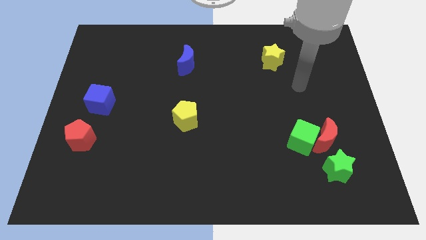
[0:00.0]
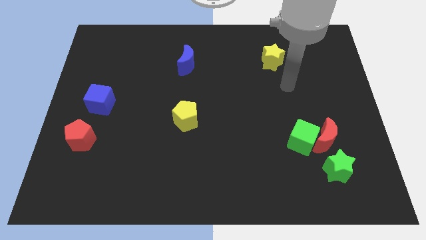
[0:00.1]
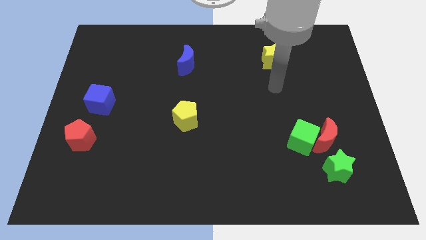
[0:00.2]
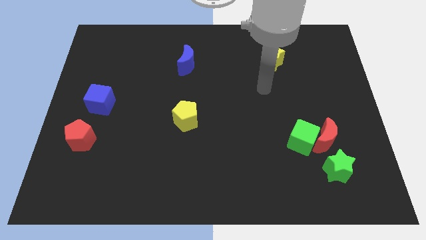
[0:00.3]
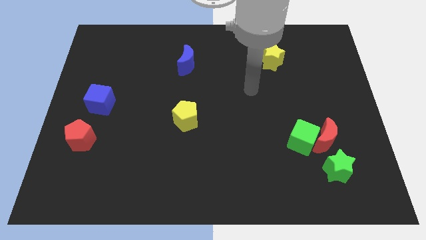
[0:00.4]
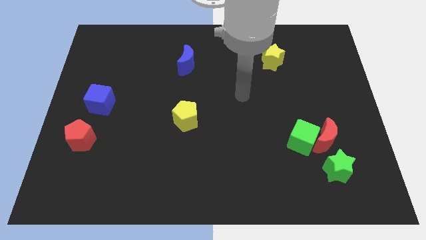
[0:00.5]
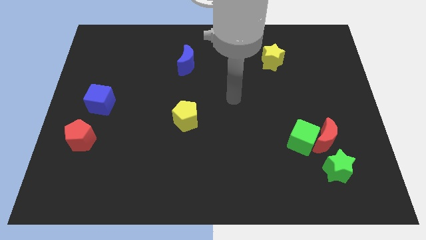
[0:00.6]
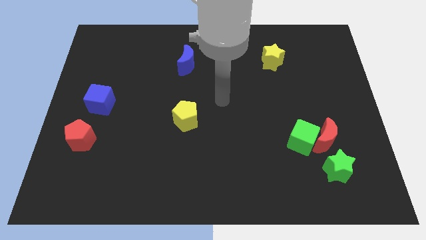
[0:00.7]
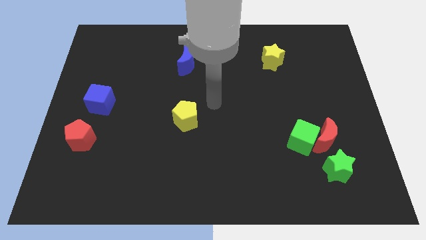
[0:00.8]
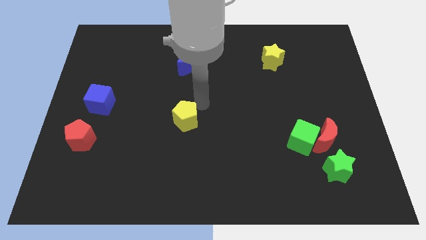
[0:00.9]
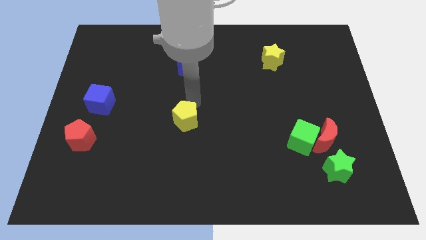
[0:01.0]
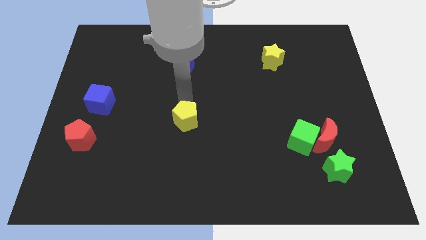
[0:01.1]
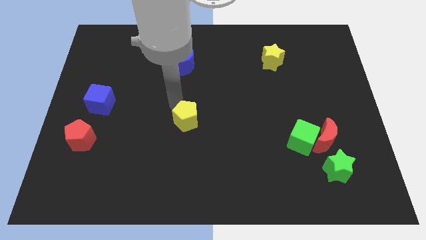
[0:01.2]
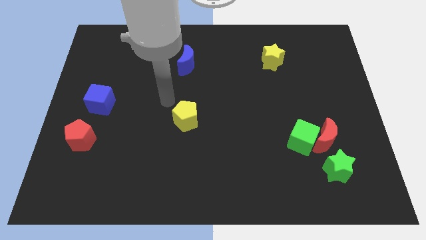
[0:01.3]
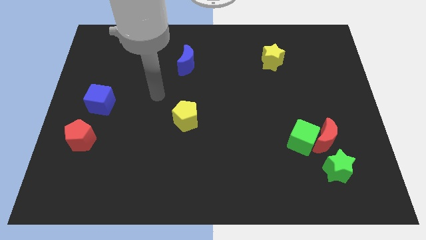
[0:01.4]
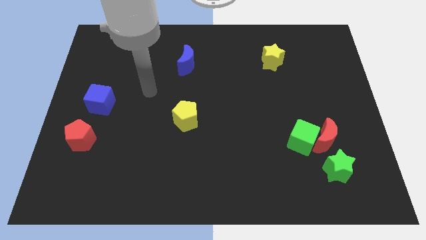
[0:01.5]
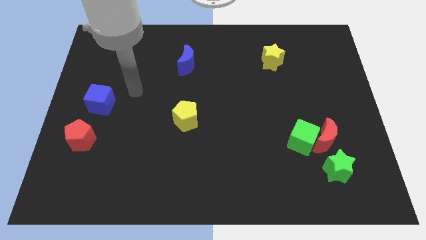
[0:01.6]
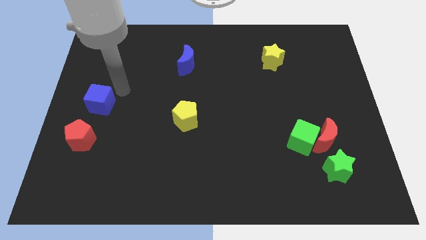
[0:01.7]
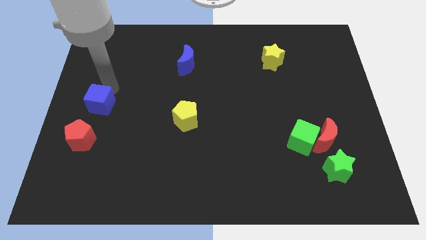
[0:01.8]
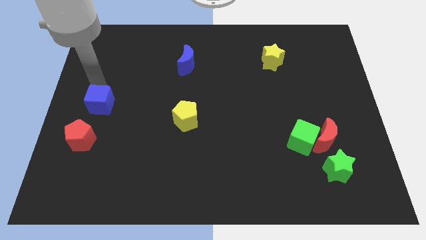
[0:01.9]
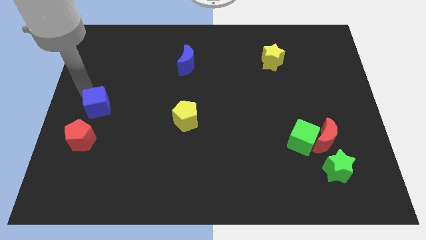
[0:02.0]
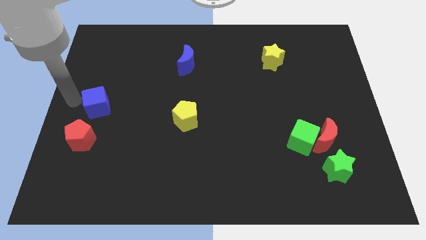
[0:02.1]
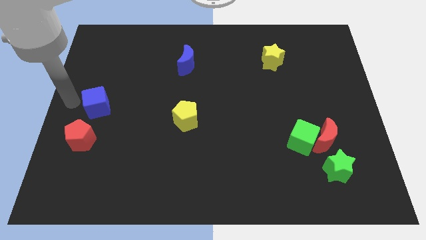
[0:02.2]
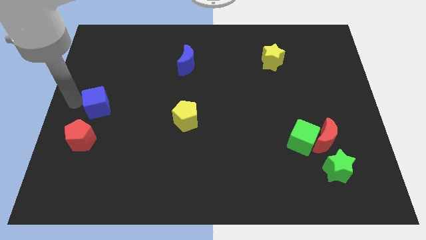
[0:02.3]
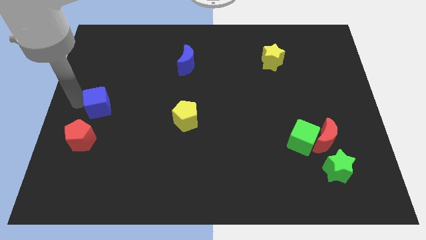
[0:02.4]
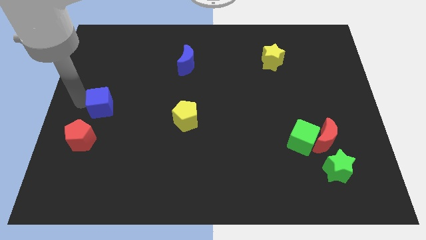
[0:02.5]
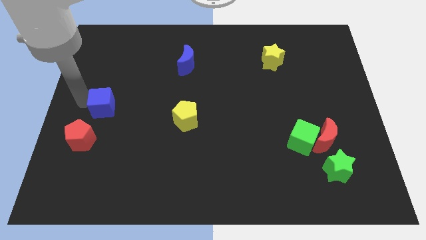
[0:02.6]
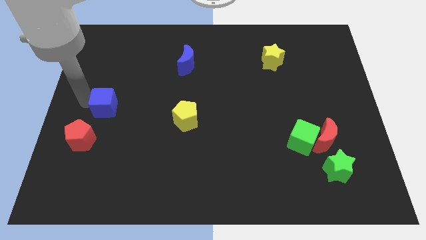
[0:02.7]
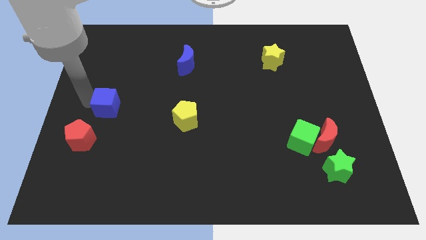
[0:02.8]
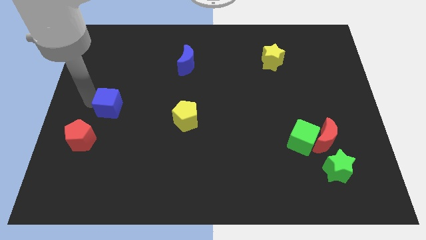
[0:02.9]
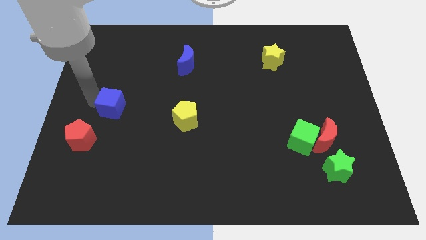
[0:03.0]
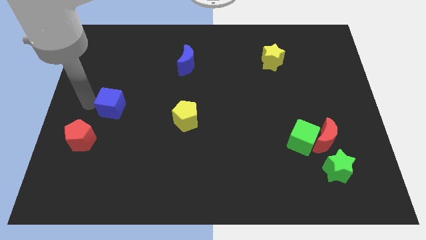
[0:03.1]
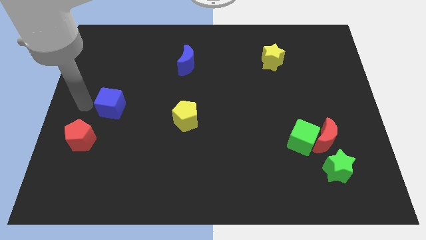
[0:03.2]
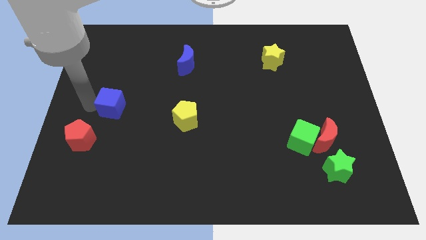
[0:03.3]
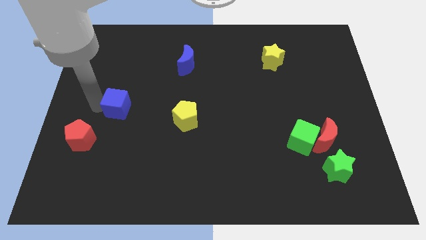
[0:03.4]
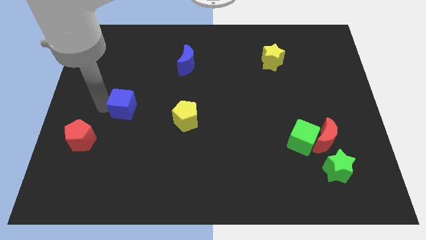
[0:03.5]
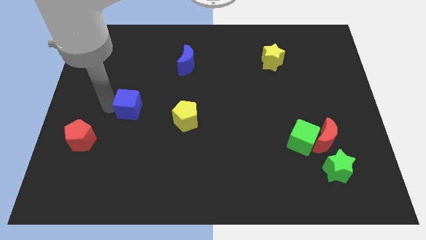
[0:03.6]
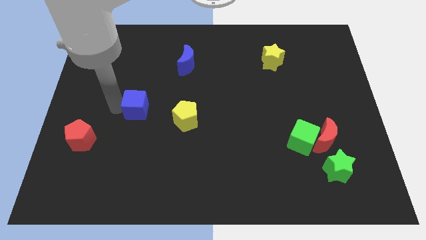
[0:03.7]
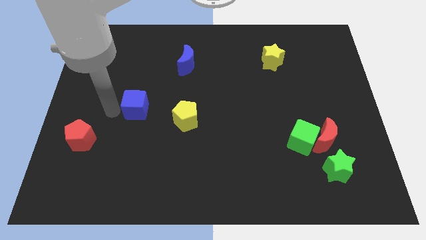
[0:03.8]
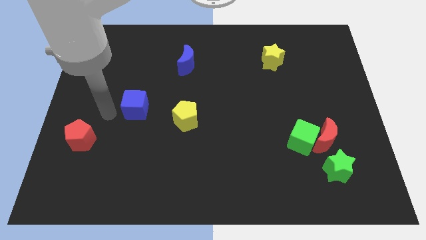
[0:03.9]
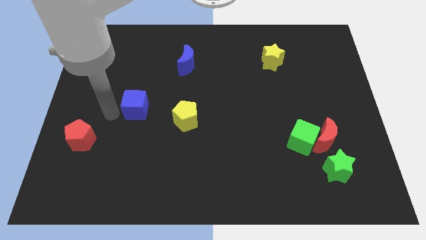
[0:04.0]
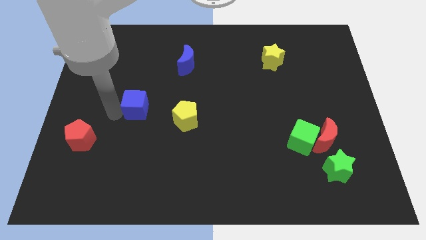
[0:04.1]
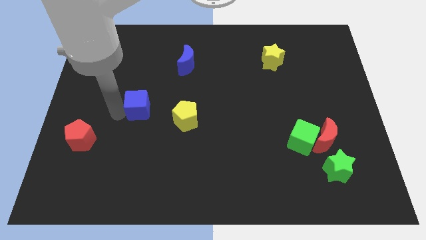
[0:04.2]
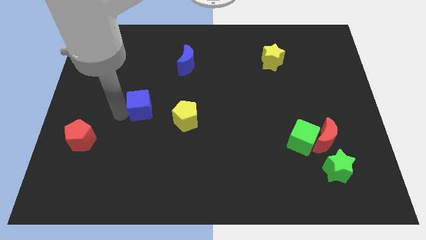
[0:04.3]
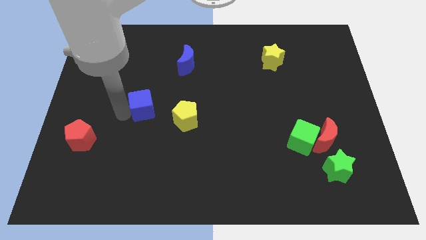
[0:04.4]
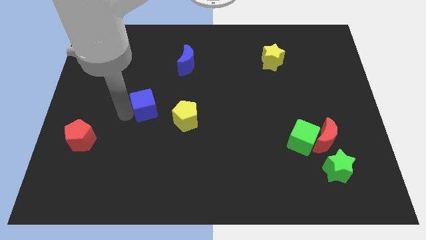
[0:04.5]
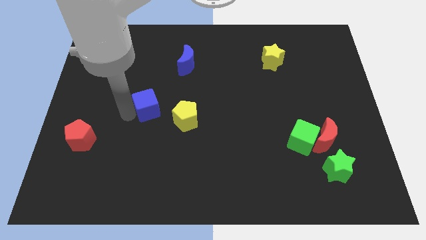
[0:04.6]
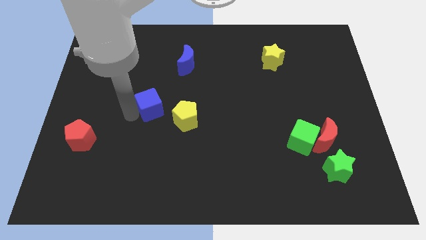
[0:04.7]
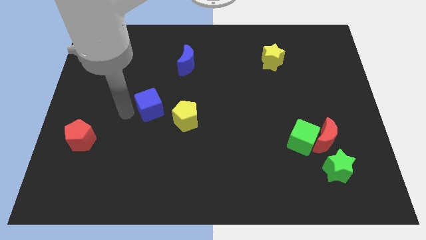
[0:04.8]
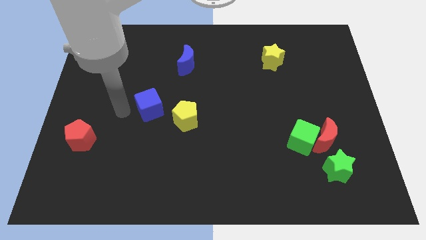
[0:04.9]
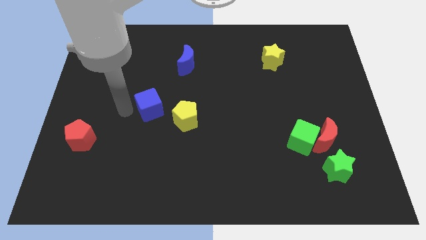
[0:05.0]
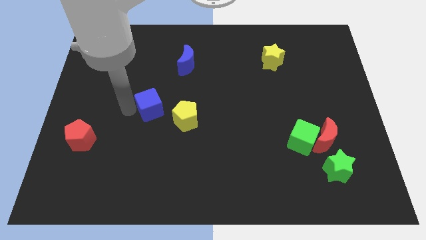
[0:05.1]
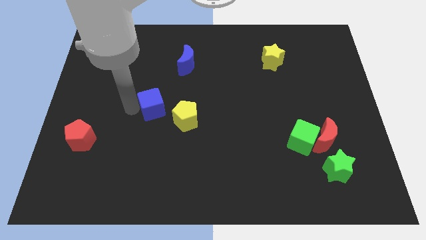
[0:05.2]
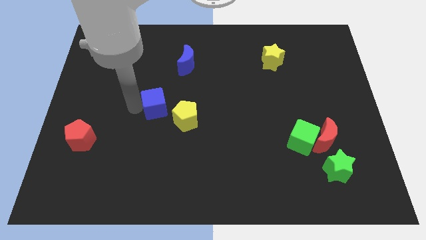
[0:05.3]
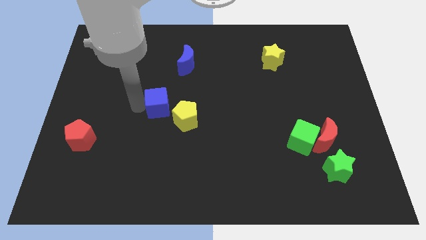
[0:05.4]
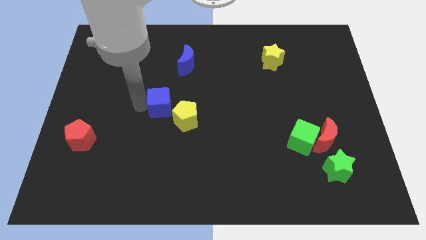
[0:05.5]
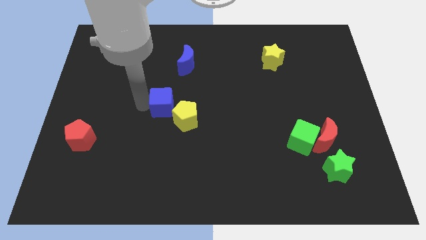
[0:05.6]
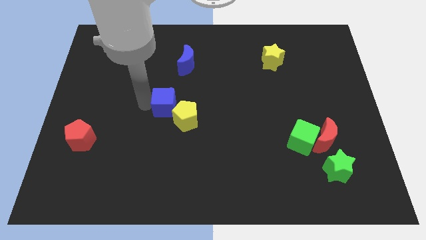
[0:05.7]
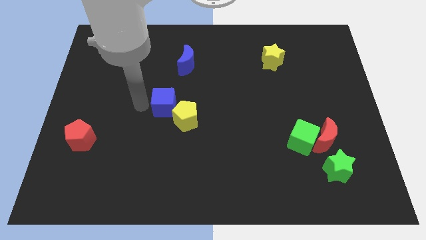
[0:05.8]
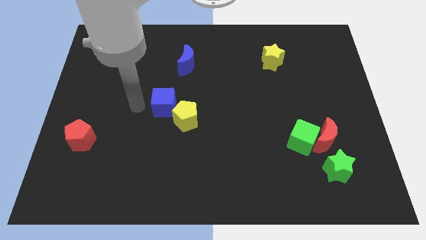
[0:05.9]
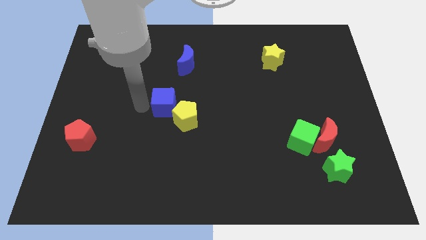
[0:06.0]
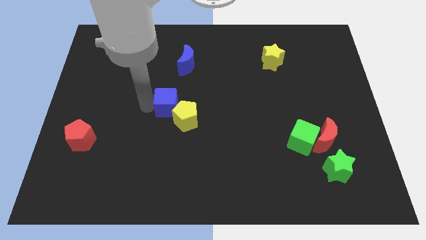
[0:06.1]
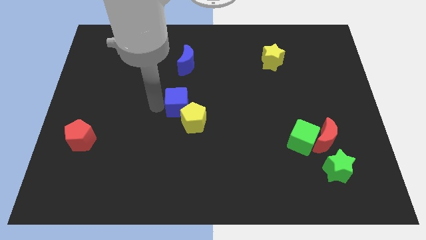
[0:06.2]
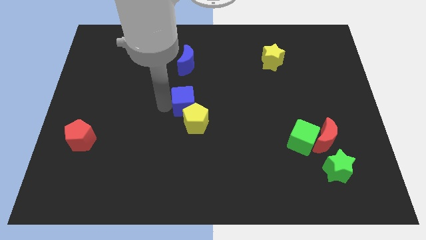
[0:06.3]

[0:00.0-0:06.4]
move the blue cube right

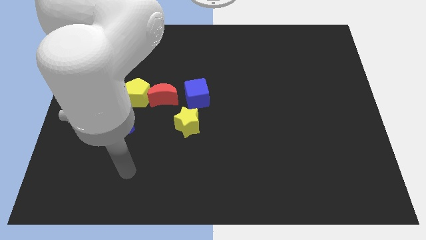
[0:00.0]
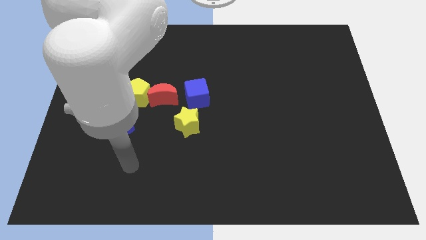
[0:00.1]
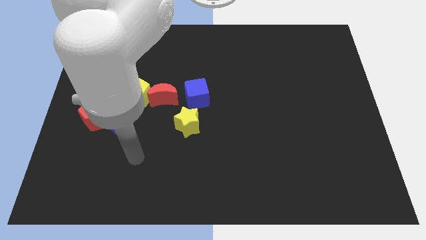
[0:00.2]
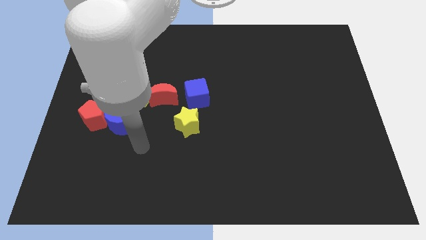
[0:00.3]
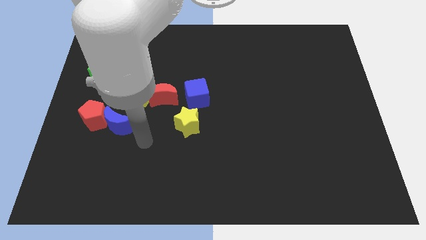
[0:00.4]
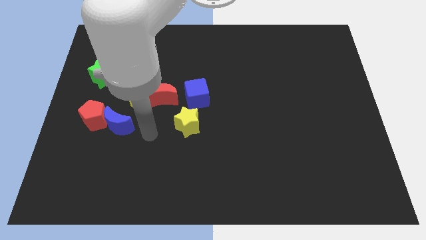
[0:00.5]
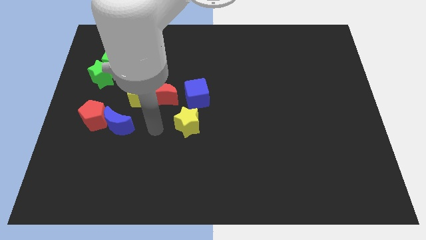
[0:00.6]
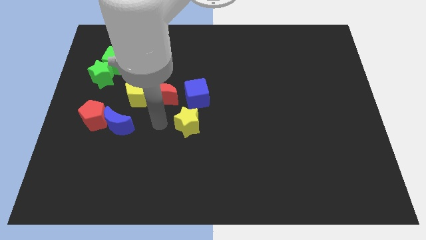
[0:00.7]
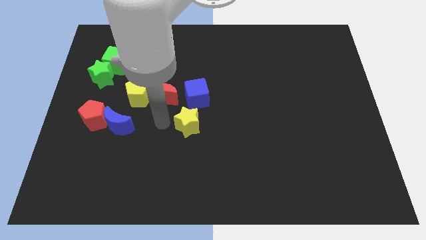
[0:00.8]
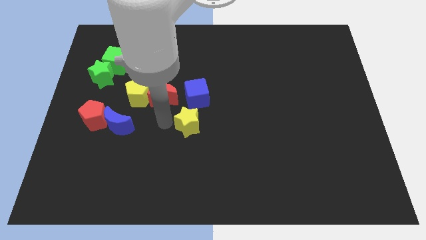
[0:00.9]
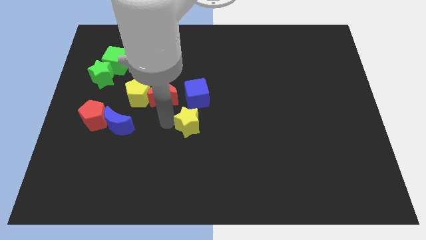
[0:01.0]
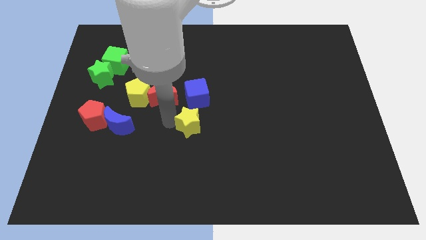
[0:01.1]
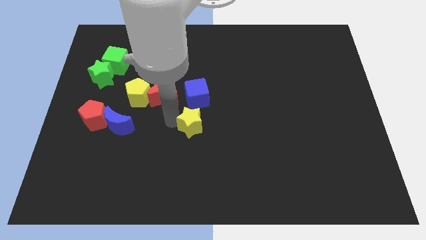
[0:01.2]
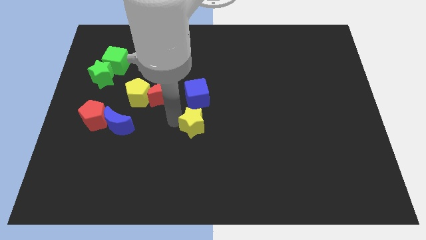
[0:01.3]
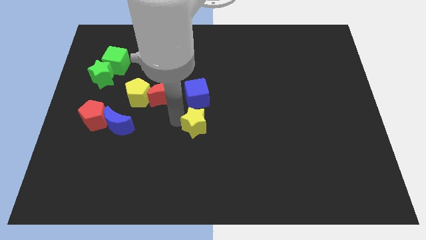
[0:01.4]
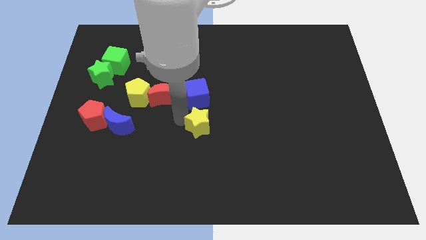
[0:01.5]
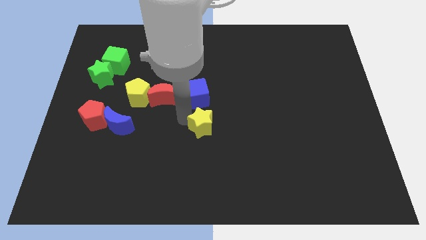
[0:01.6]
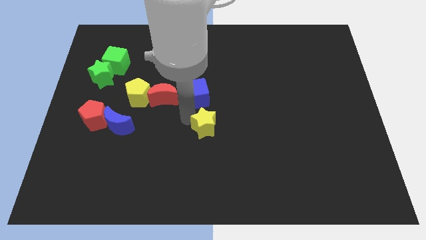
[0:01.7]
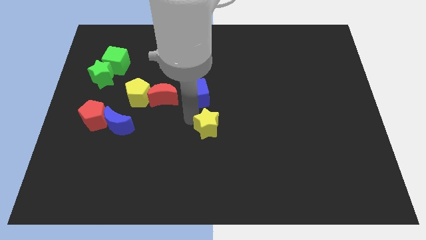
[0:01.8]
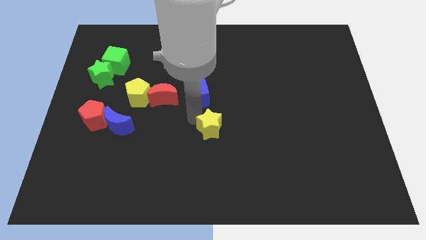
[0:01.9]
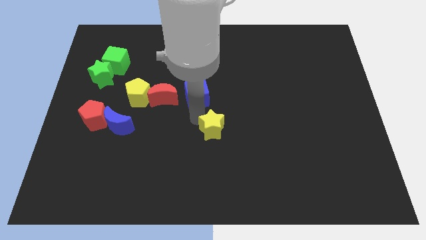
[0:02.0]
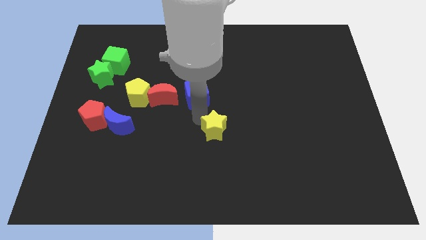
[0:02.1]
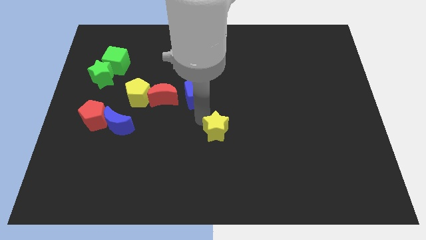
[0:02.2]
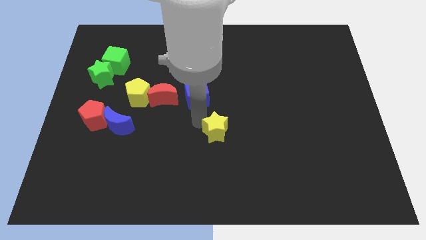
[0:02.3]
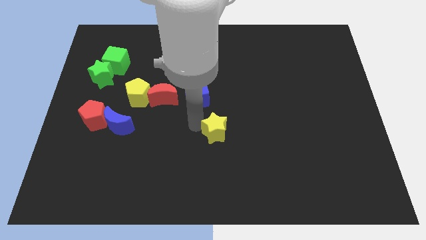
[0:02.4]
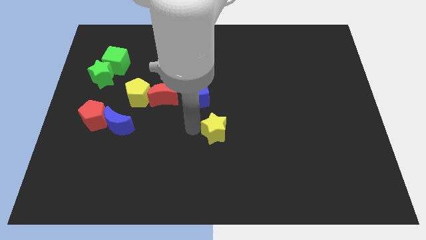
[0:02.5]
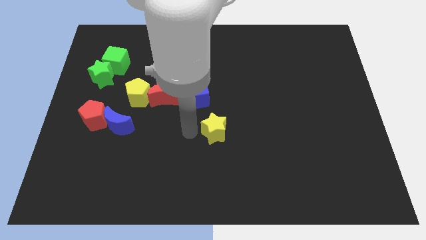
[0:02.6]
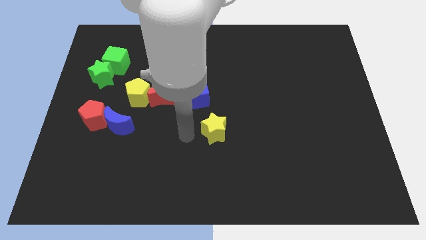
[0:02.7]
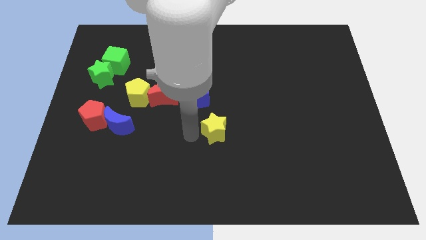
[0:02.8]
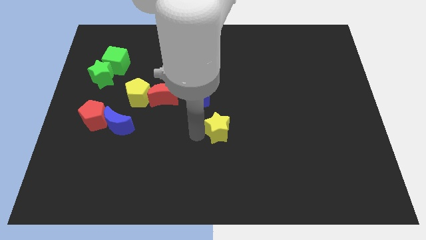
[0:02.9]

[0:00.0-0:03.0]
slide the yellow star a little right
